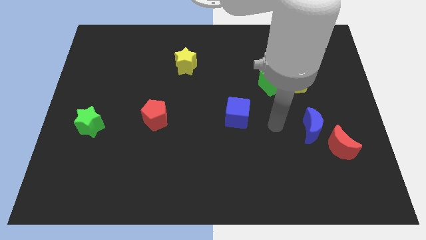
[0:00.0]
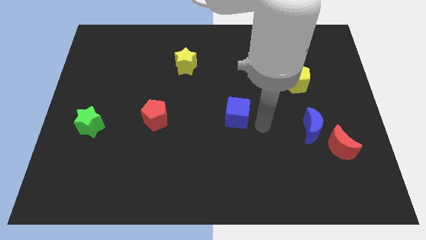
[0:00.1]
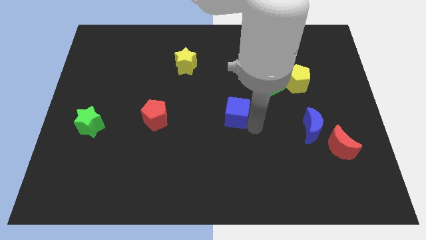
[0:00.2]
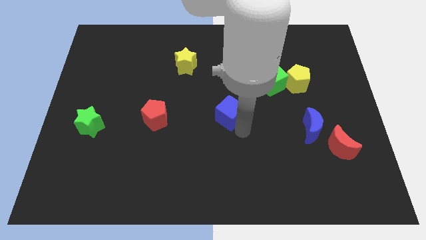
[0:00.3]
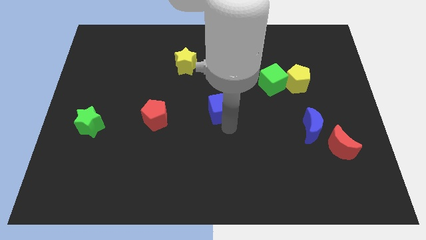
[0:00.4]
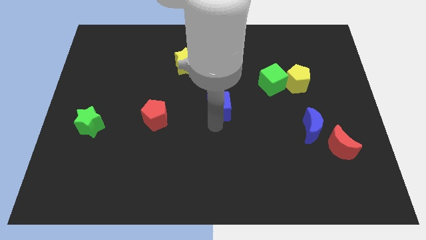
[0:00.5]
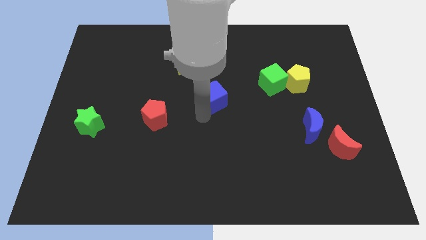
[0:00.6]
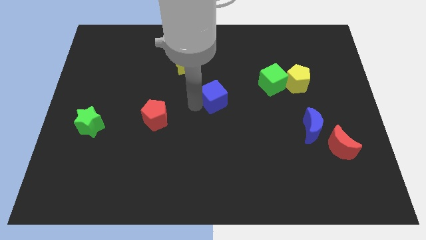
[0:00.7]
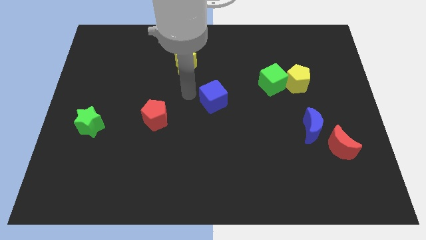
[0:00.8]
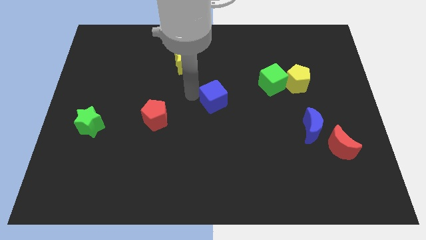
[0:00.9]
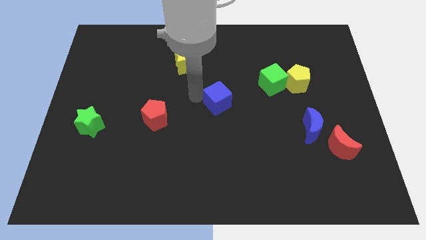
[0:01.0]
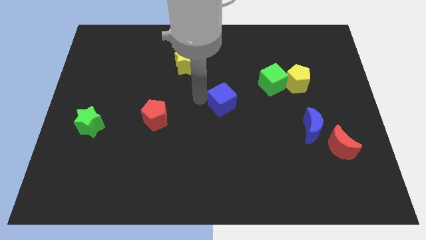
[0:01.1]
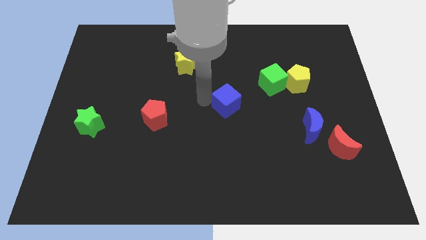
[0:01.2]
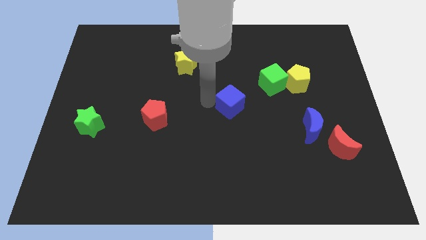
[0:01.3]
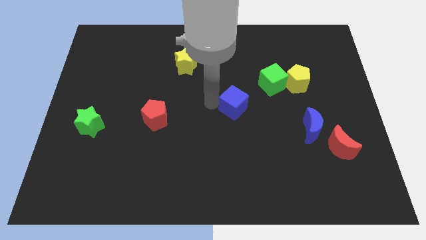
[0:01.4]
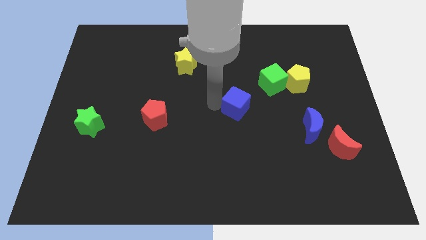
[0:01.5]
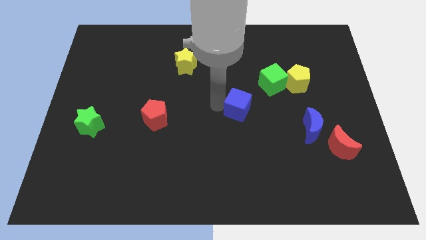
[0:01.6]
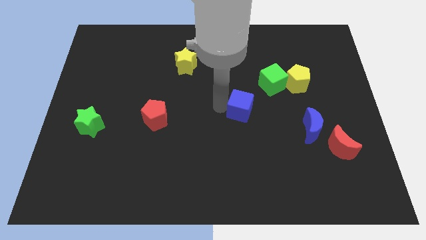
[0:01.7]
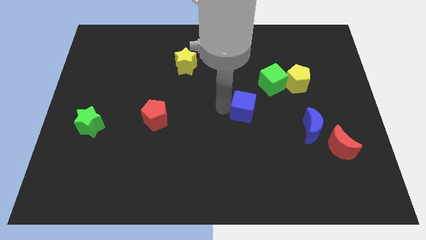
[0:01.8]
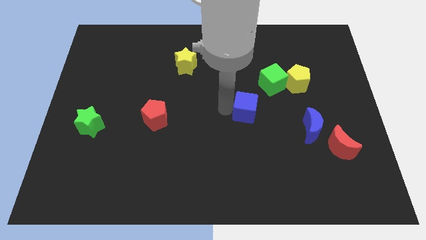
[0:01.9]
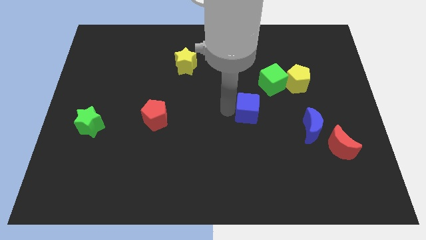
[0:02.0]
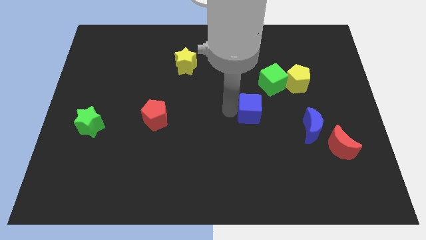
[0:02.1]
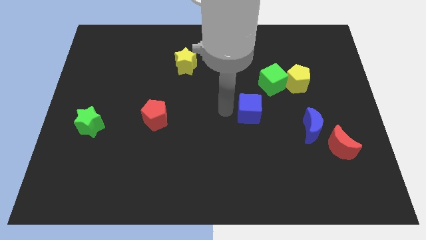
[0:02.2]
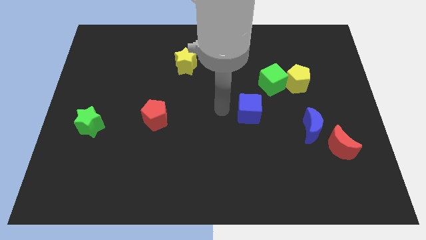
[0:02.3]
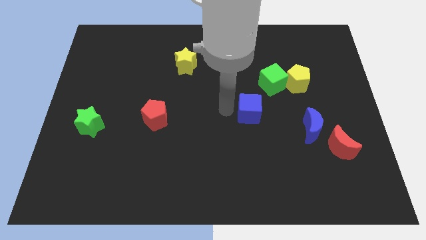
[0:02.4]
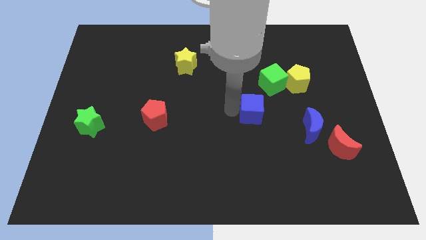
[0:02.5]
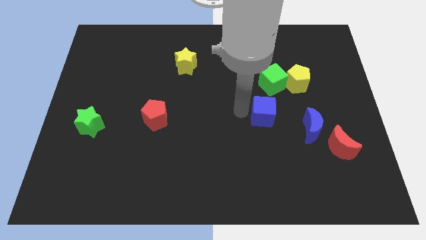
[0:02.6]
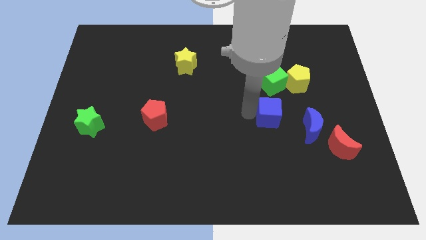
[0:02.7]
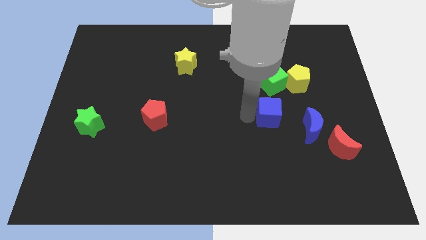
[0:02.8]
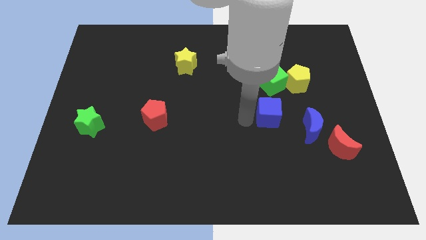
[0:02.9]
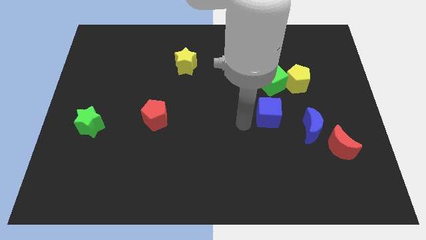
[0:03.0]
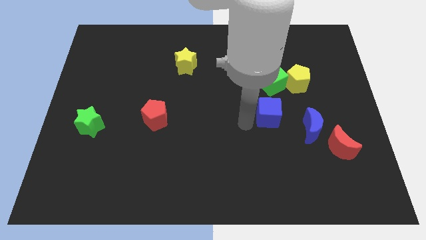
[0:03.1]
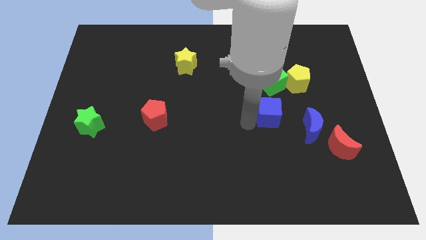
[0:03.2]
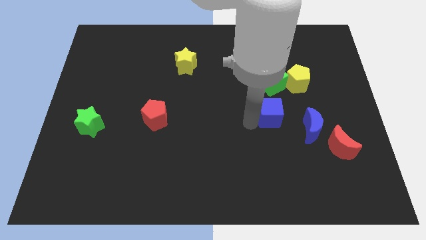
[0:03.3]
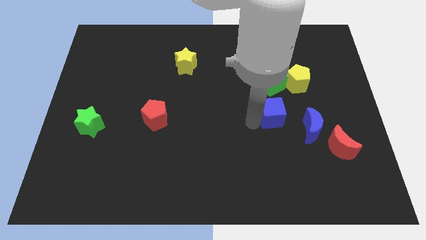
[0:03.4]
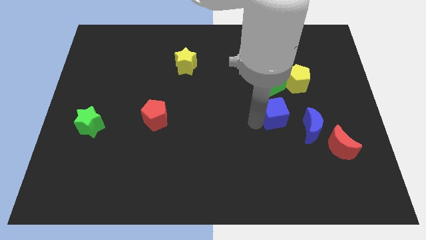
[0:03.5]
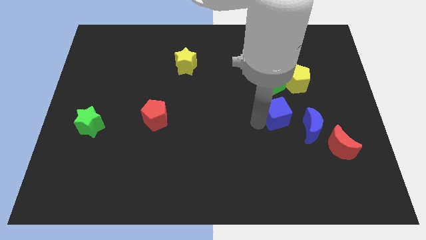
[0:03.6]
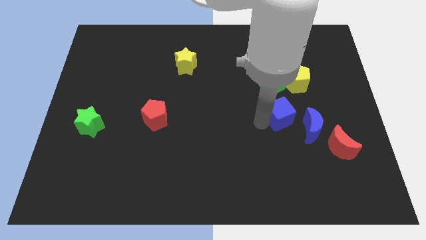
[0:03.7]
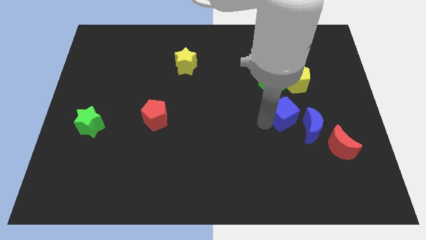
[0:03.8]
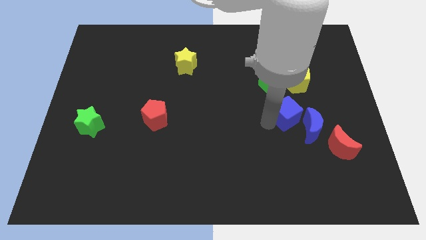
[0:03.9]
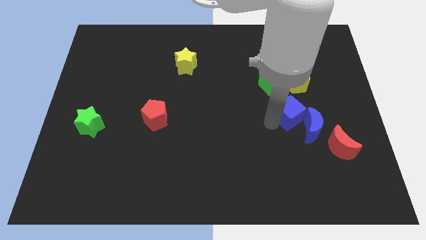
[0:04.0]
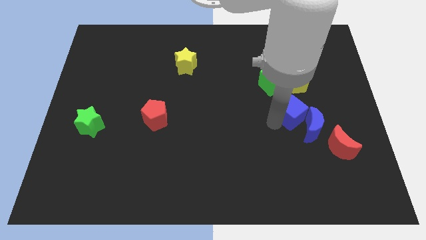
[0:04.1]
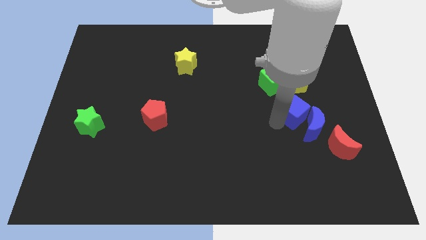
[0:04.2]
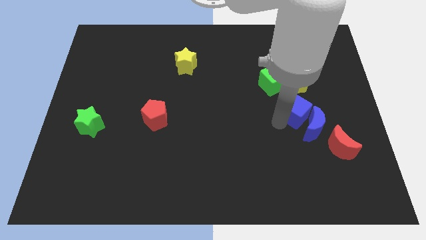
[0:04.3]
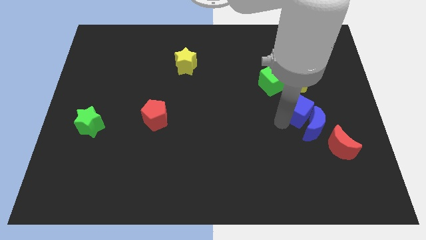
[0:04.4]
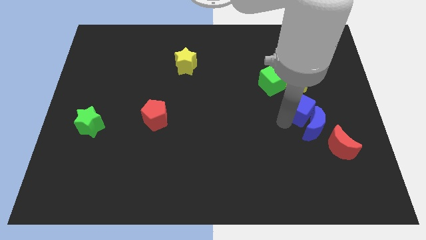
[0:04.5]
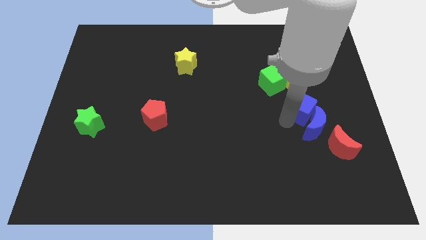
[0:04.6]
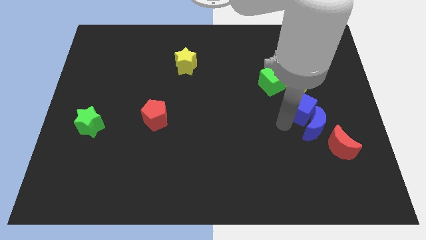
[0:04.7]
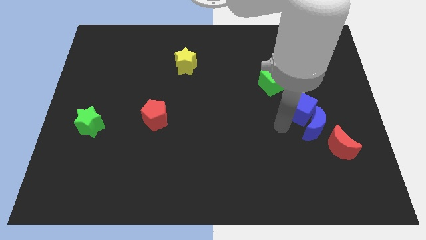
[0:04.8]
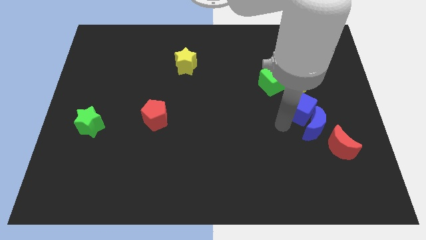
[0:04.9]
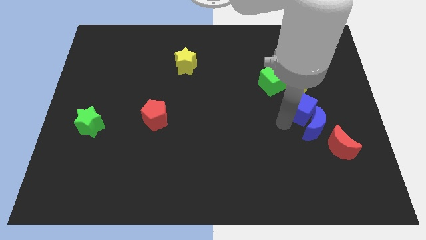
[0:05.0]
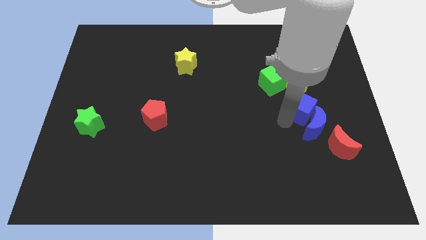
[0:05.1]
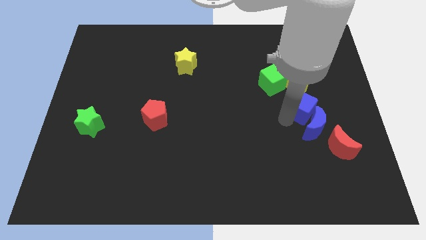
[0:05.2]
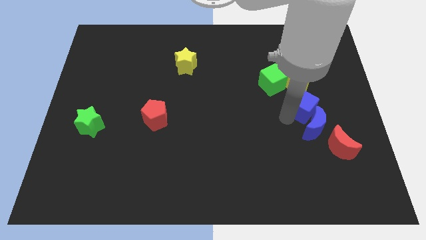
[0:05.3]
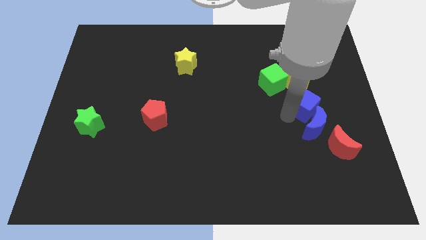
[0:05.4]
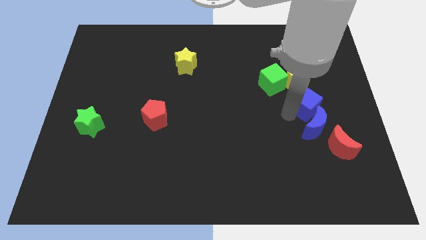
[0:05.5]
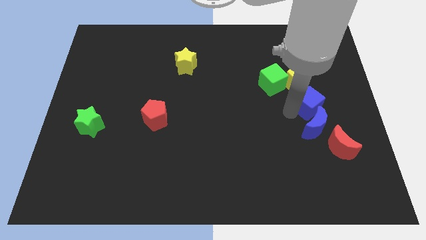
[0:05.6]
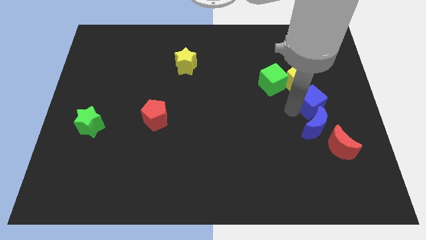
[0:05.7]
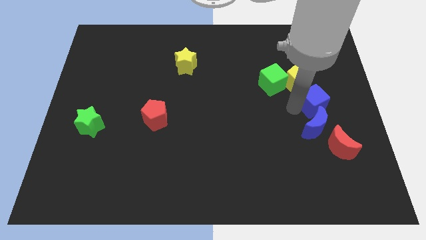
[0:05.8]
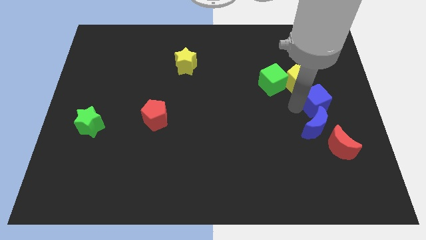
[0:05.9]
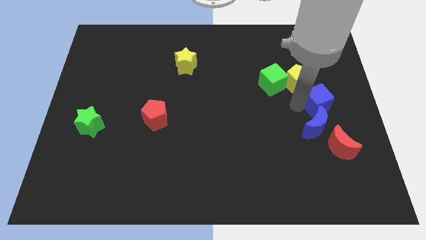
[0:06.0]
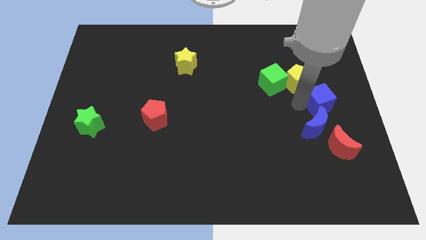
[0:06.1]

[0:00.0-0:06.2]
move the blue cube to the right side of the board

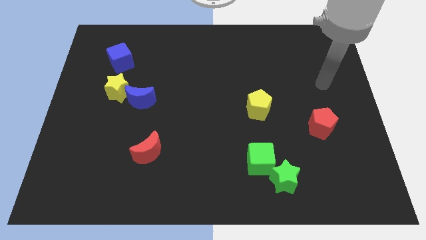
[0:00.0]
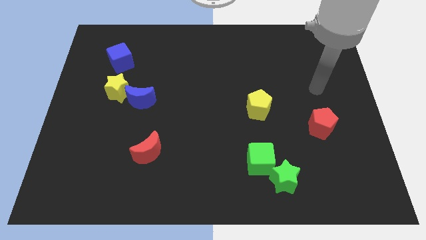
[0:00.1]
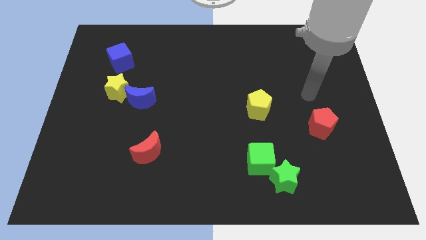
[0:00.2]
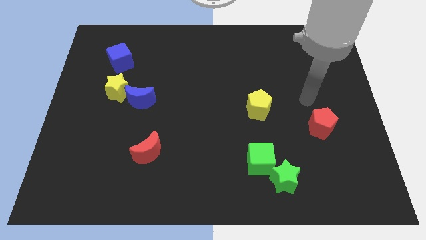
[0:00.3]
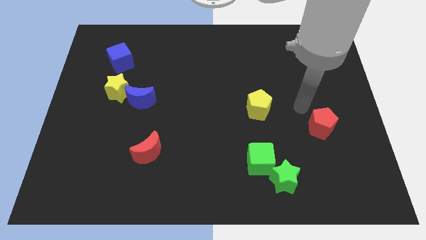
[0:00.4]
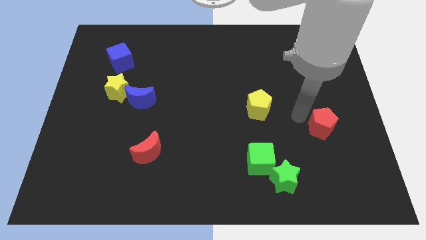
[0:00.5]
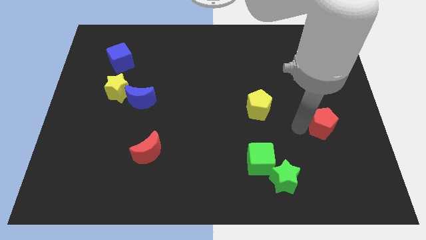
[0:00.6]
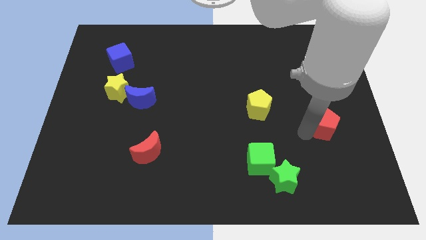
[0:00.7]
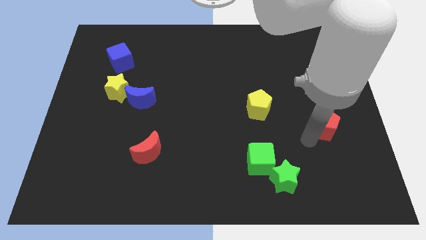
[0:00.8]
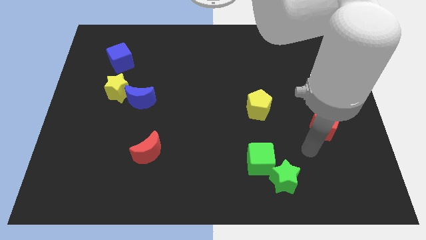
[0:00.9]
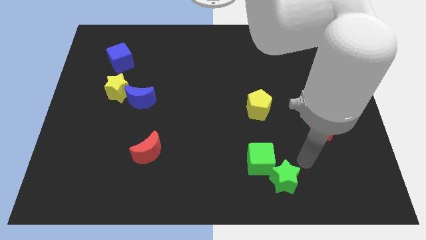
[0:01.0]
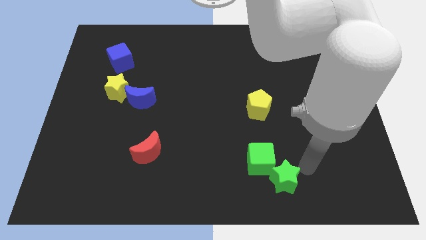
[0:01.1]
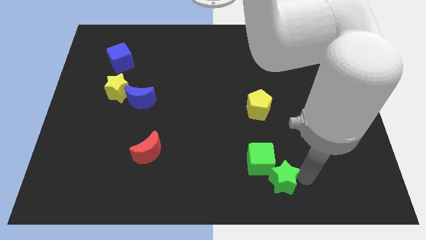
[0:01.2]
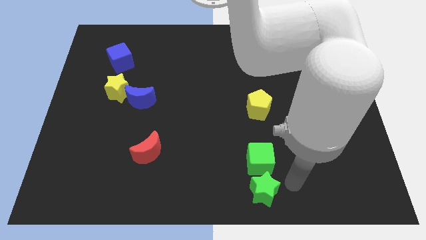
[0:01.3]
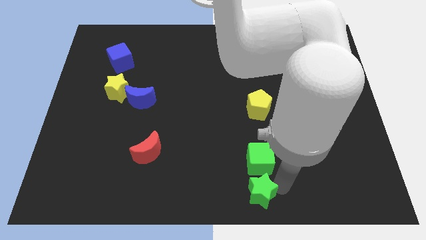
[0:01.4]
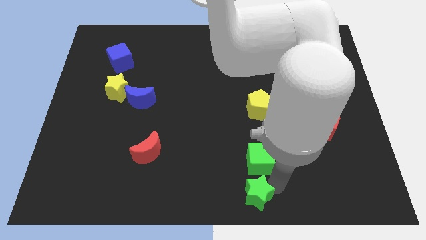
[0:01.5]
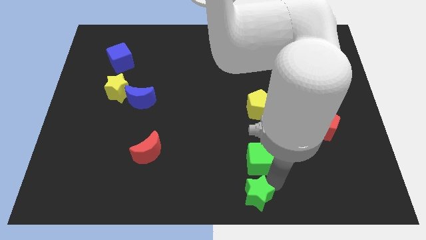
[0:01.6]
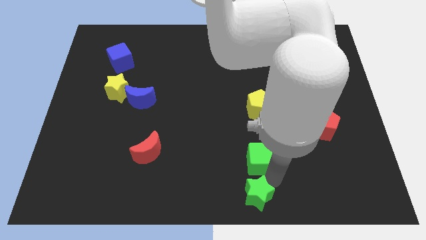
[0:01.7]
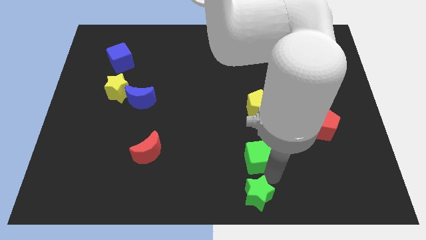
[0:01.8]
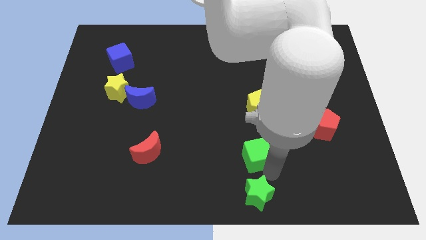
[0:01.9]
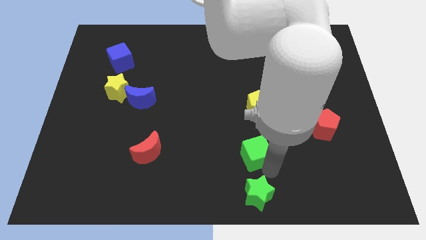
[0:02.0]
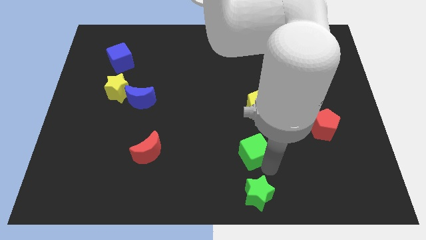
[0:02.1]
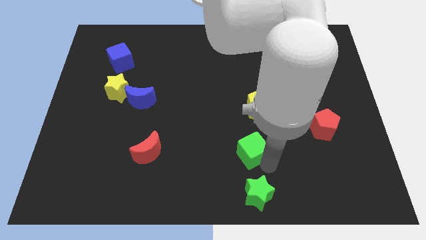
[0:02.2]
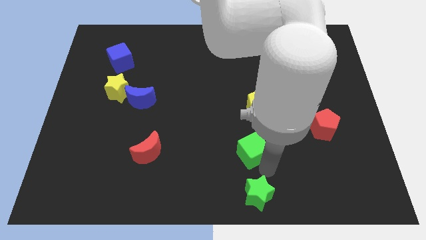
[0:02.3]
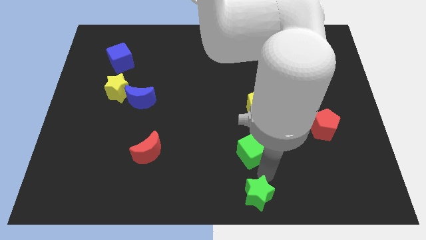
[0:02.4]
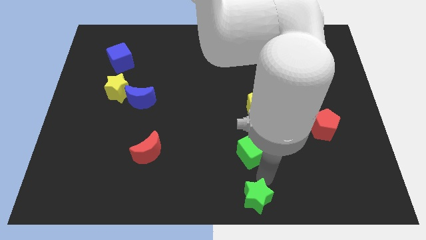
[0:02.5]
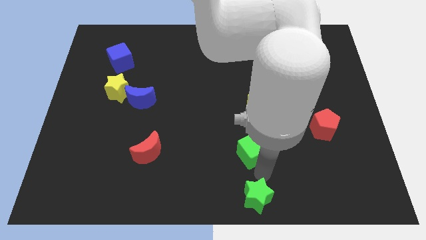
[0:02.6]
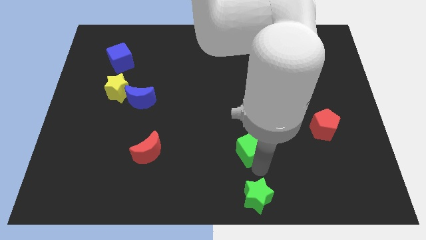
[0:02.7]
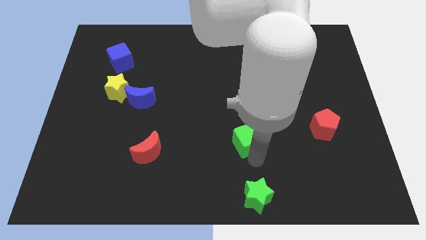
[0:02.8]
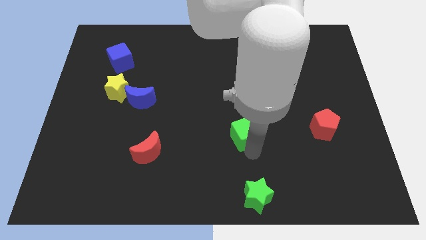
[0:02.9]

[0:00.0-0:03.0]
put the green cube to the middle of the board
